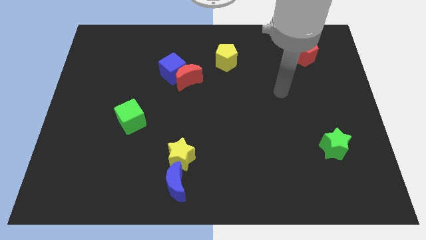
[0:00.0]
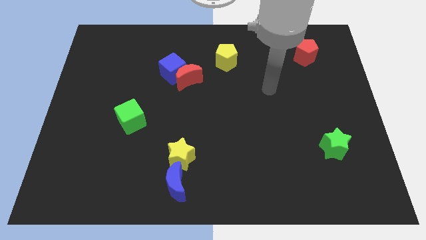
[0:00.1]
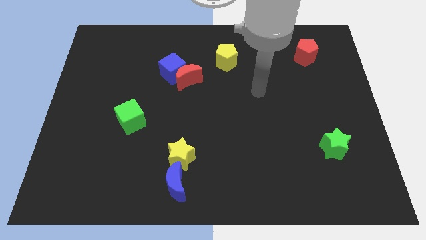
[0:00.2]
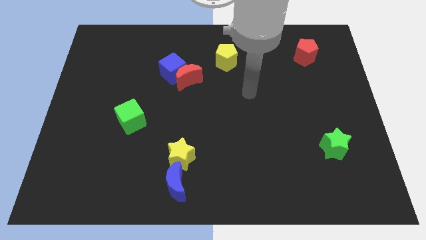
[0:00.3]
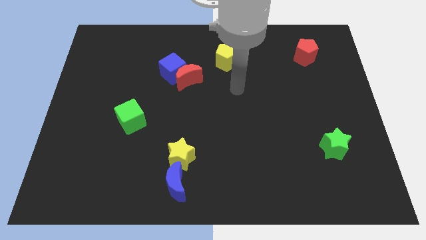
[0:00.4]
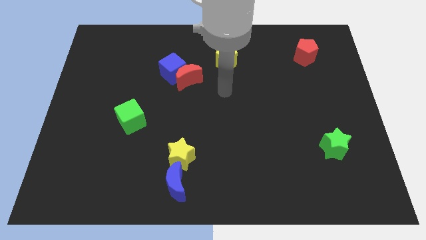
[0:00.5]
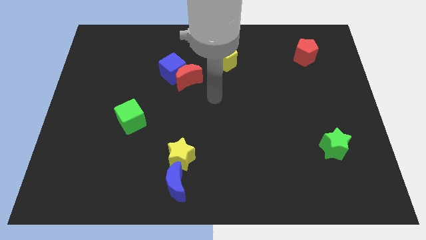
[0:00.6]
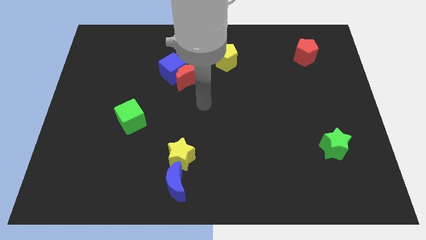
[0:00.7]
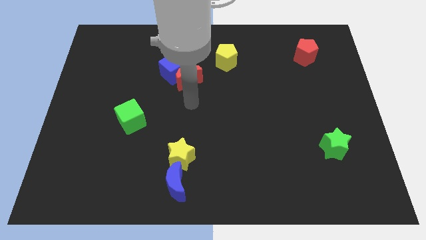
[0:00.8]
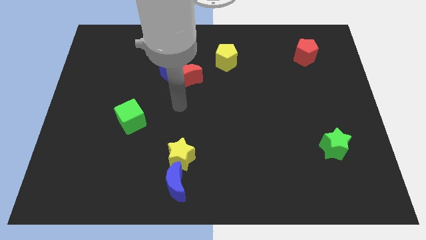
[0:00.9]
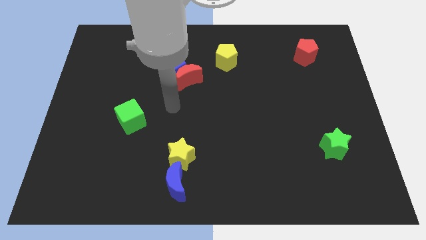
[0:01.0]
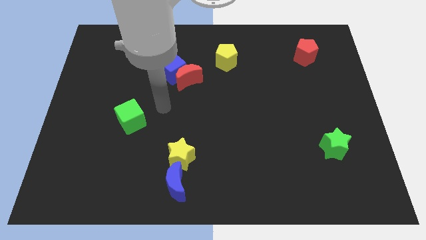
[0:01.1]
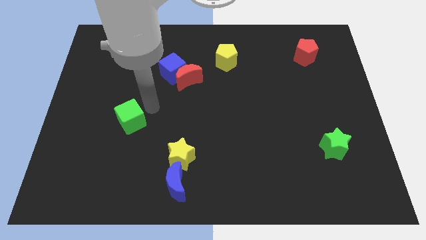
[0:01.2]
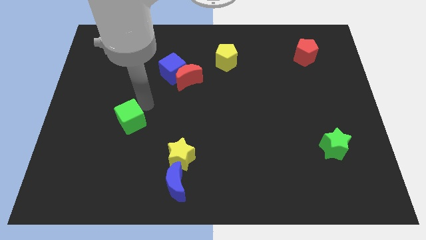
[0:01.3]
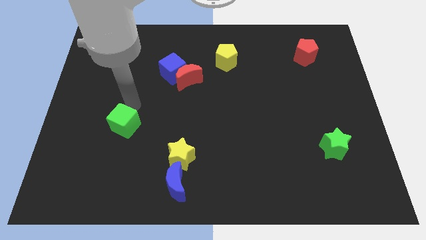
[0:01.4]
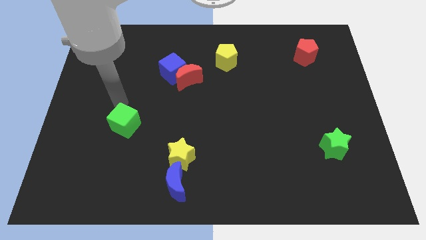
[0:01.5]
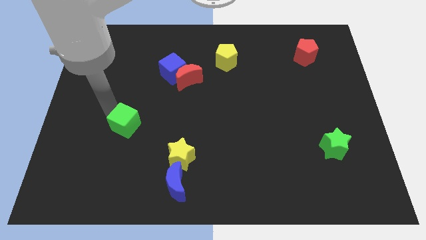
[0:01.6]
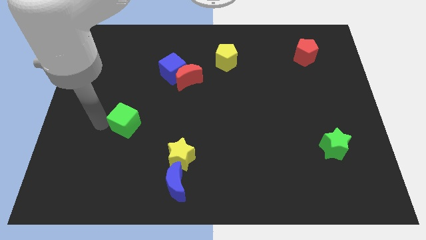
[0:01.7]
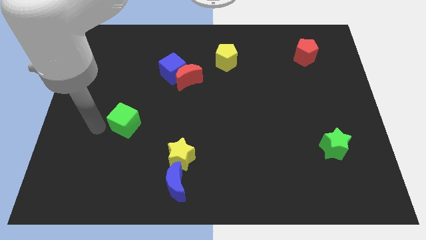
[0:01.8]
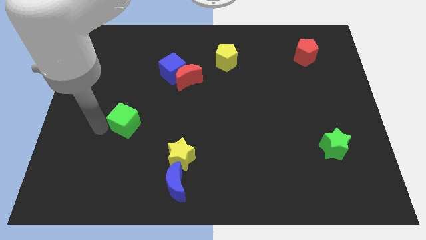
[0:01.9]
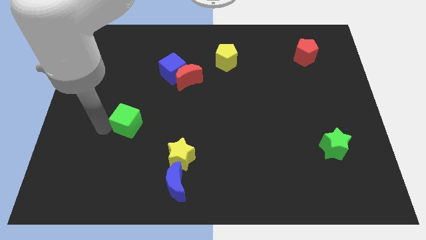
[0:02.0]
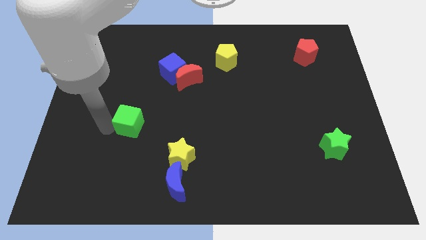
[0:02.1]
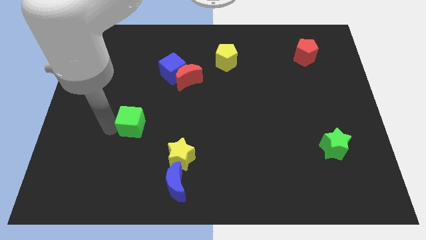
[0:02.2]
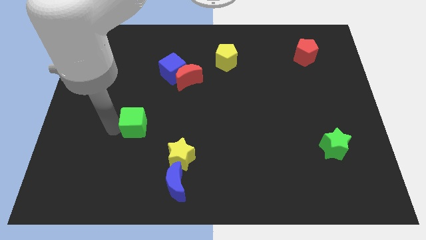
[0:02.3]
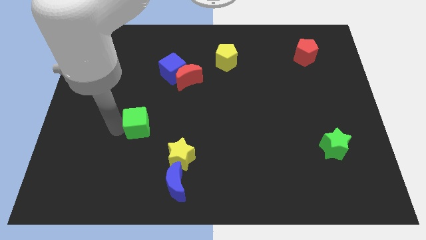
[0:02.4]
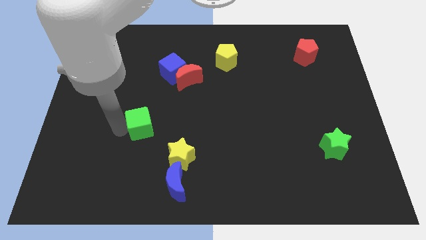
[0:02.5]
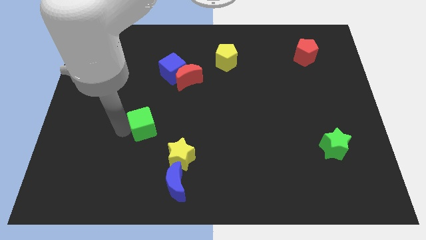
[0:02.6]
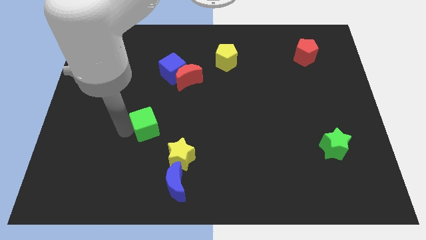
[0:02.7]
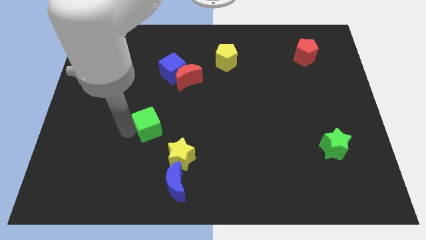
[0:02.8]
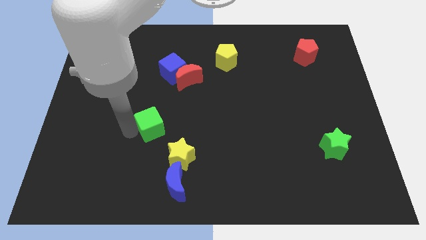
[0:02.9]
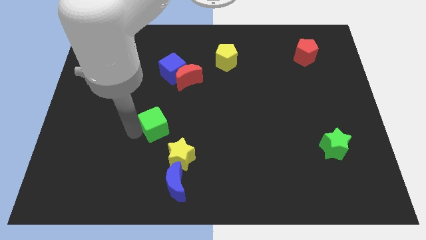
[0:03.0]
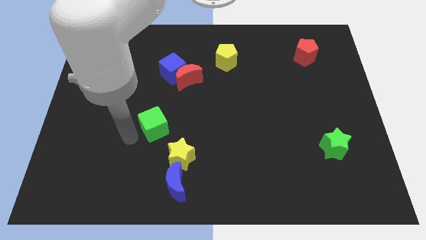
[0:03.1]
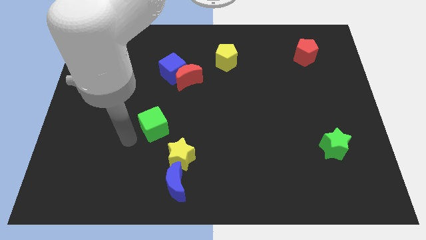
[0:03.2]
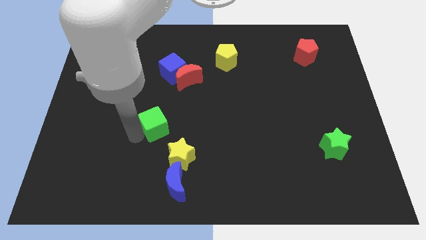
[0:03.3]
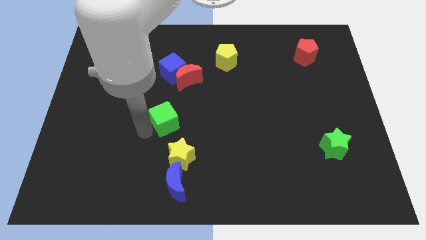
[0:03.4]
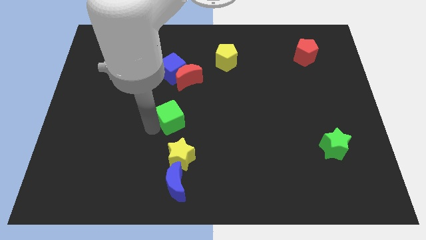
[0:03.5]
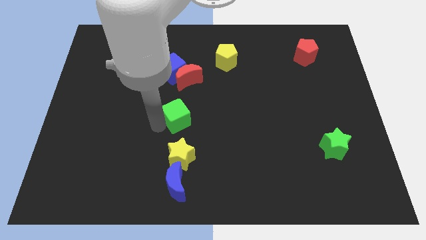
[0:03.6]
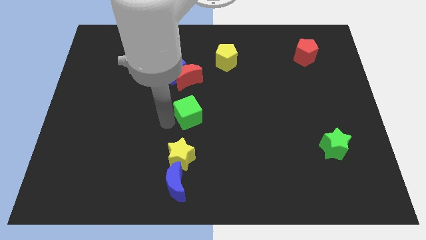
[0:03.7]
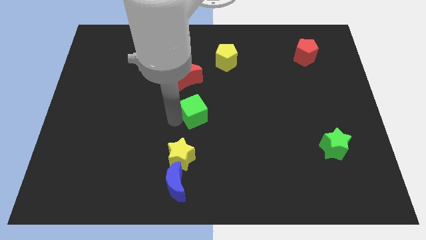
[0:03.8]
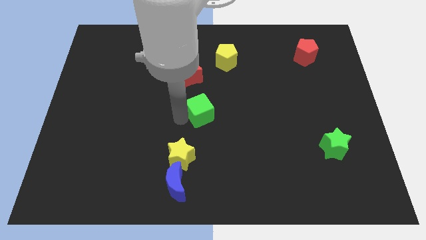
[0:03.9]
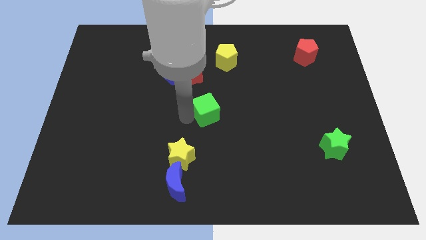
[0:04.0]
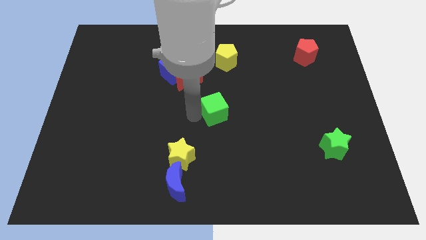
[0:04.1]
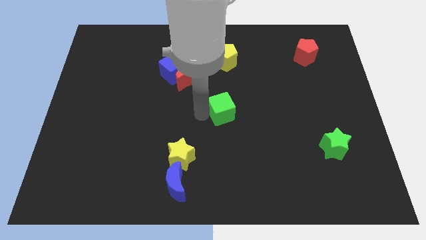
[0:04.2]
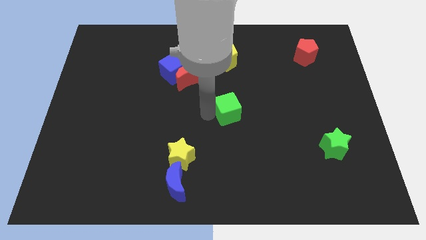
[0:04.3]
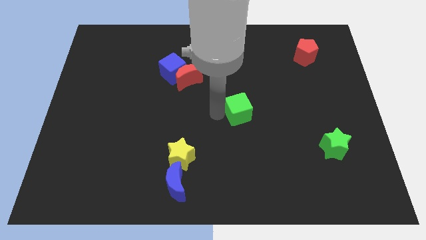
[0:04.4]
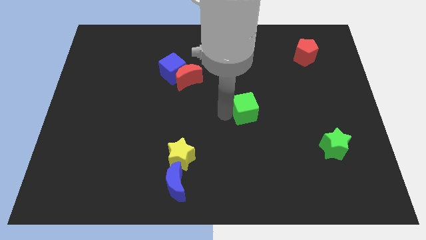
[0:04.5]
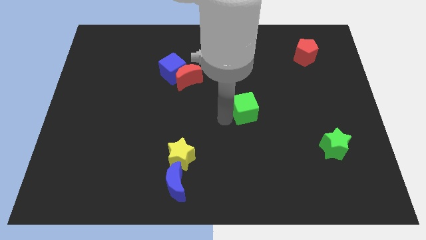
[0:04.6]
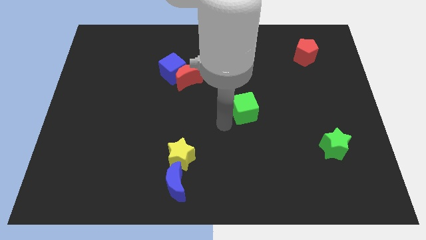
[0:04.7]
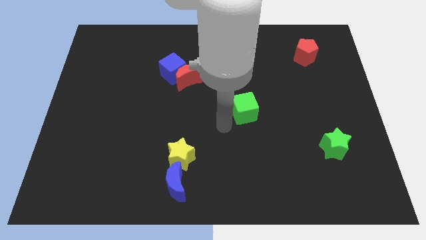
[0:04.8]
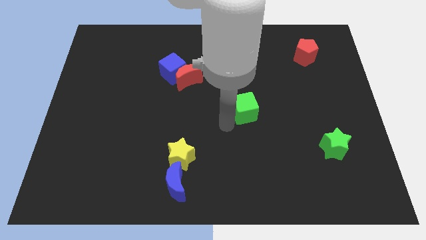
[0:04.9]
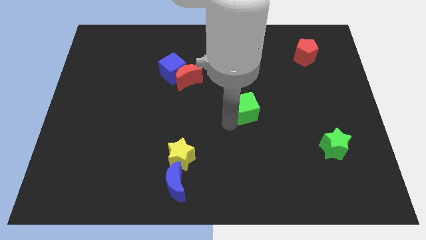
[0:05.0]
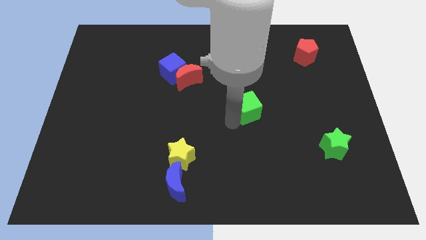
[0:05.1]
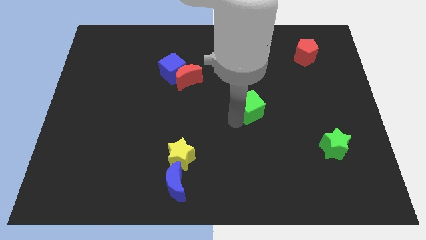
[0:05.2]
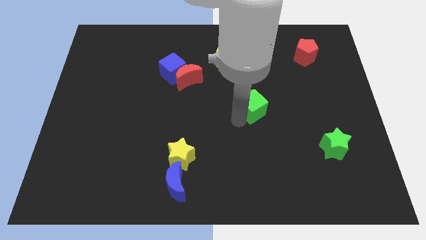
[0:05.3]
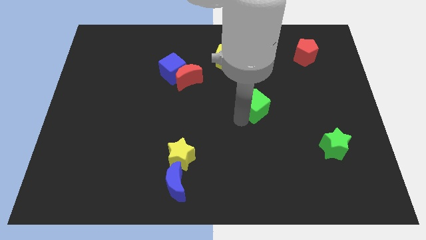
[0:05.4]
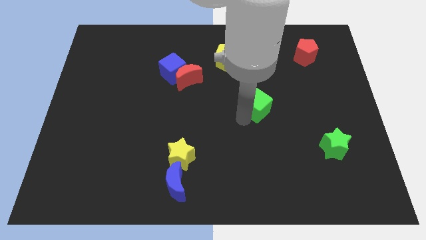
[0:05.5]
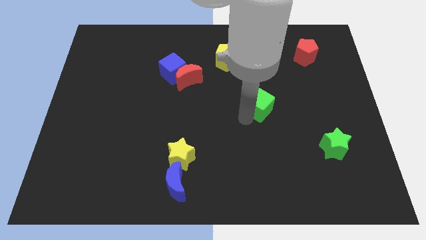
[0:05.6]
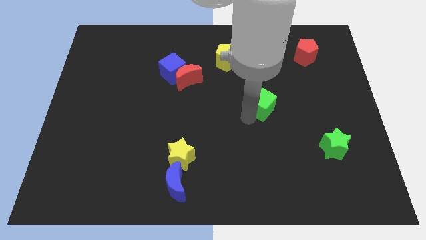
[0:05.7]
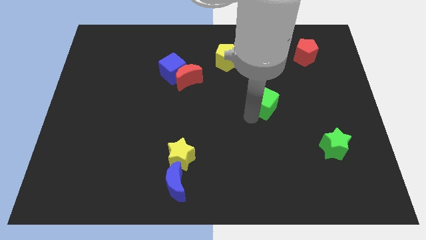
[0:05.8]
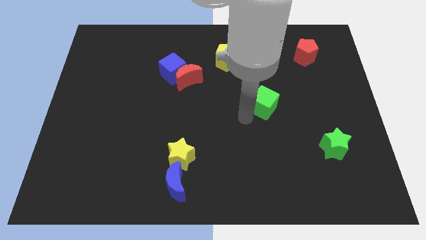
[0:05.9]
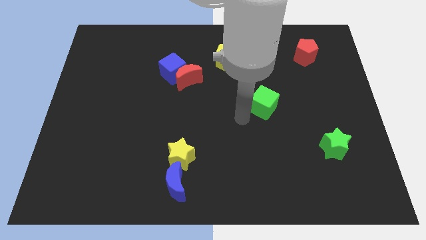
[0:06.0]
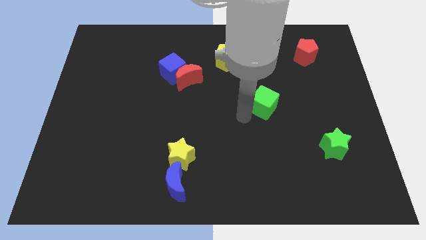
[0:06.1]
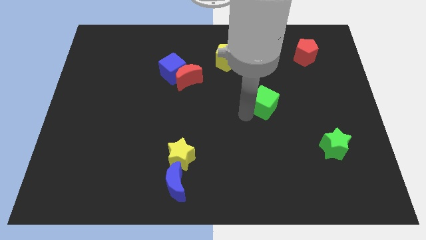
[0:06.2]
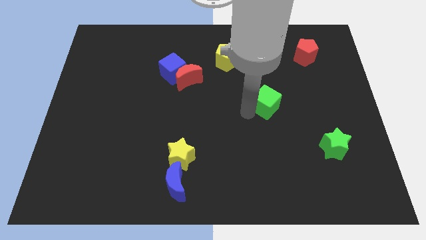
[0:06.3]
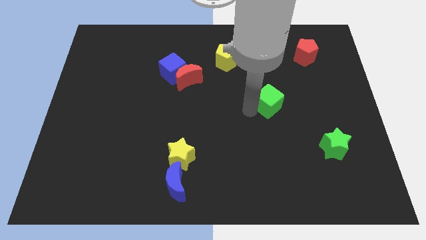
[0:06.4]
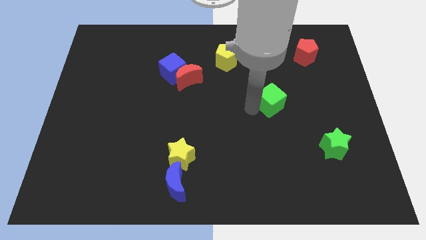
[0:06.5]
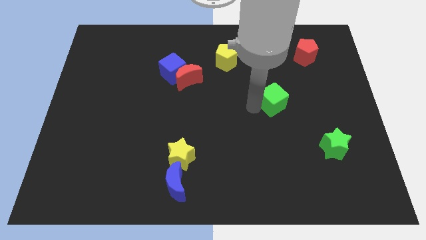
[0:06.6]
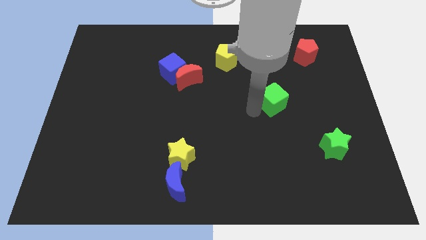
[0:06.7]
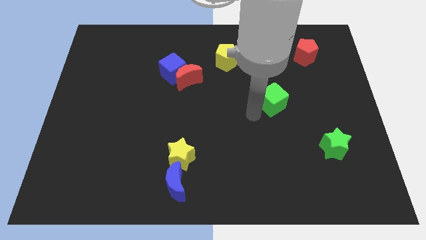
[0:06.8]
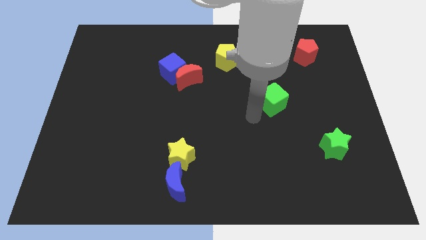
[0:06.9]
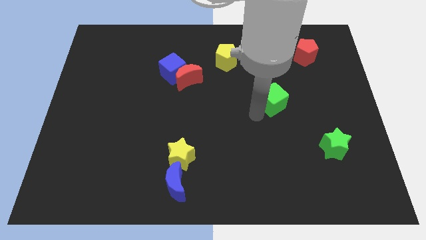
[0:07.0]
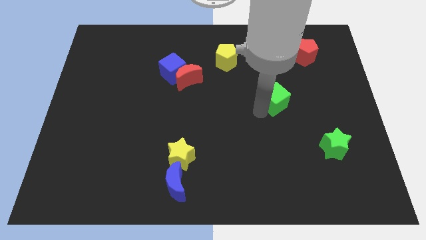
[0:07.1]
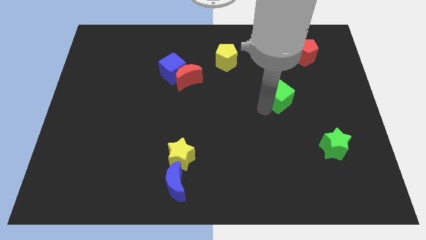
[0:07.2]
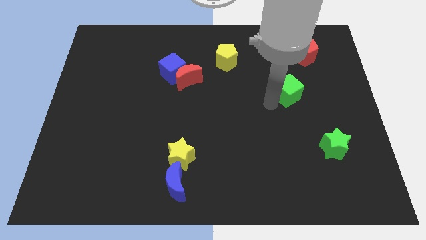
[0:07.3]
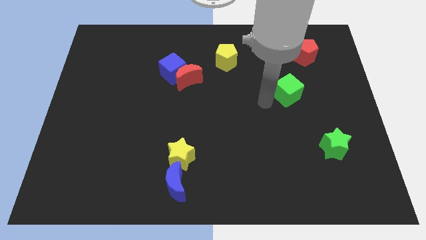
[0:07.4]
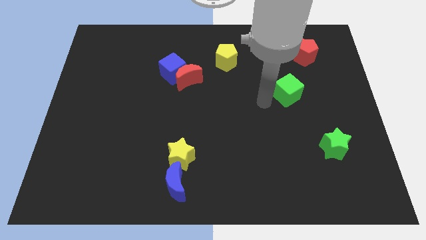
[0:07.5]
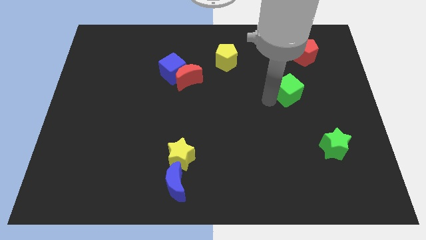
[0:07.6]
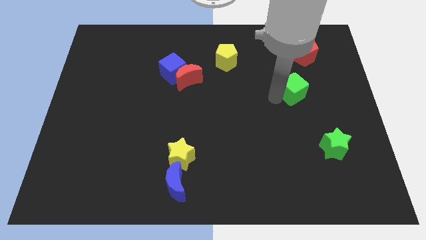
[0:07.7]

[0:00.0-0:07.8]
push the green cube to the bottom side of the red pentagon
